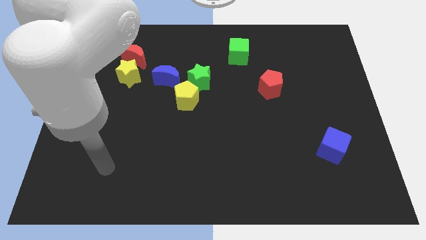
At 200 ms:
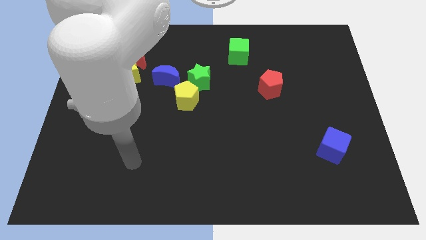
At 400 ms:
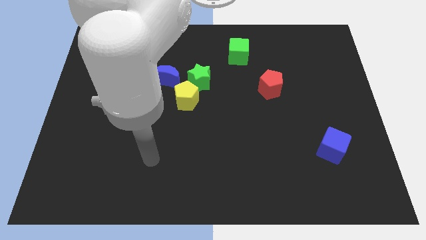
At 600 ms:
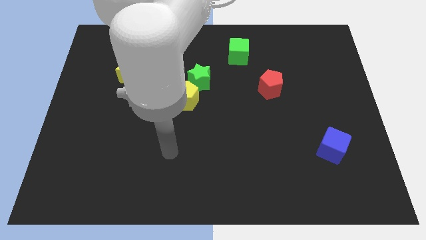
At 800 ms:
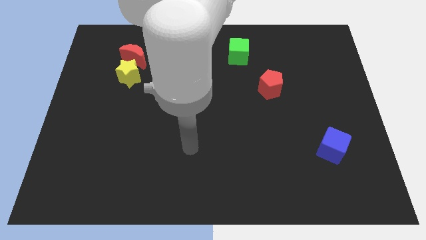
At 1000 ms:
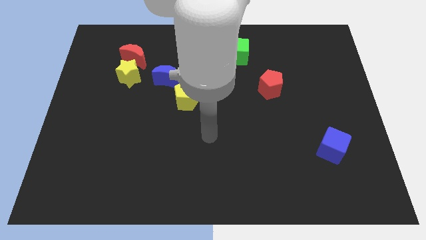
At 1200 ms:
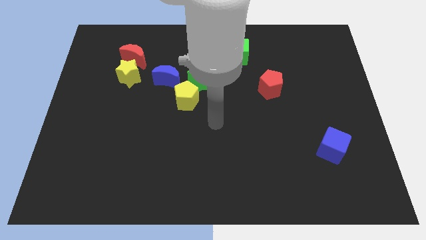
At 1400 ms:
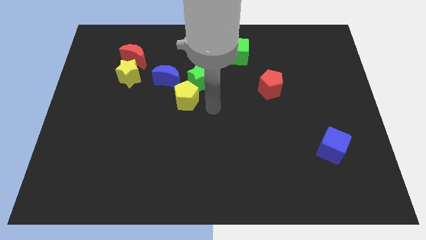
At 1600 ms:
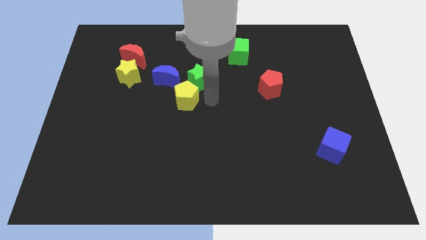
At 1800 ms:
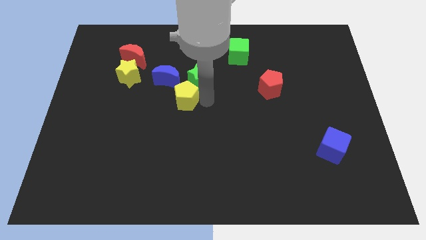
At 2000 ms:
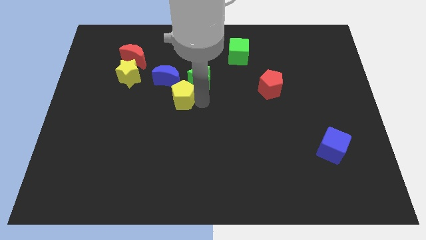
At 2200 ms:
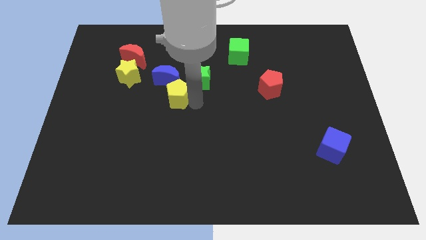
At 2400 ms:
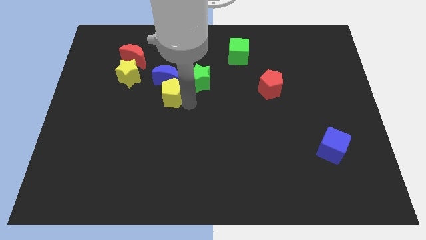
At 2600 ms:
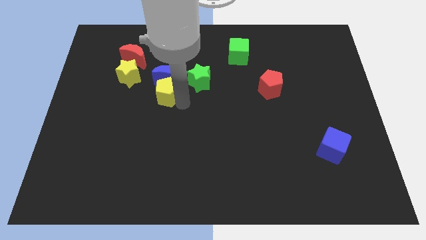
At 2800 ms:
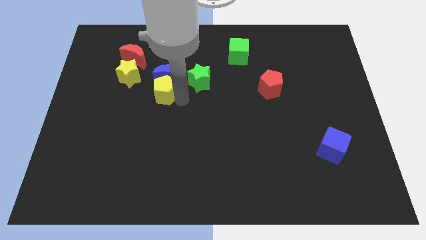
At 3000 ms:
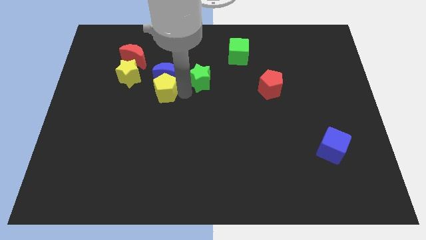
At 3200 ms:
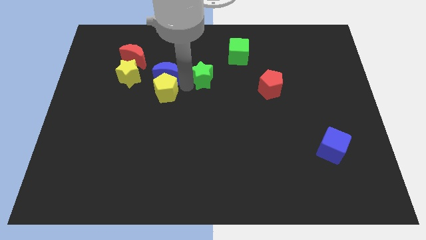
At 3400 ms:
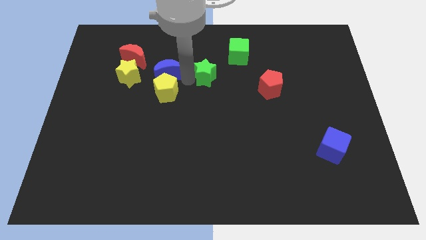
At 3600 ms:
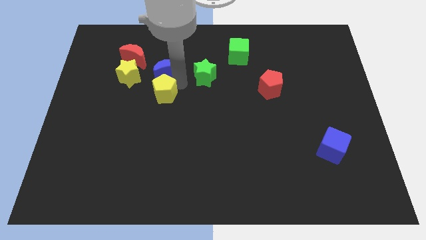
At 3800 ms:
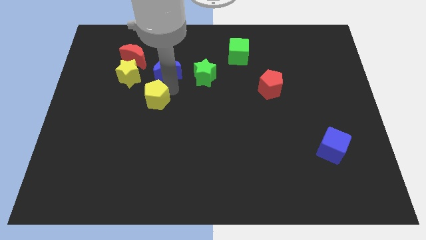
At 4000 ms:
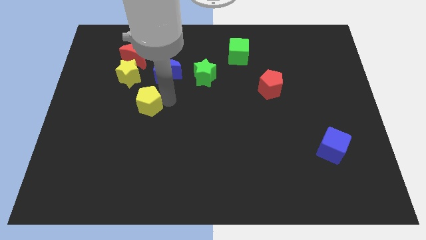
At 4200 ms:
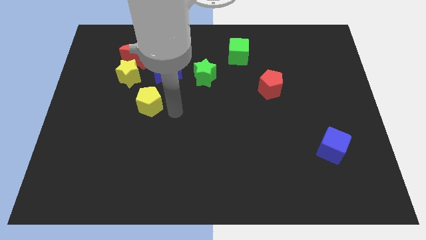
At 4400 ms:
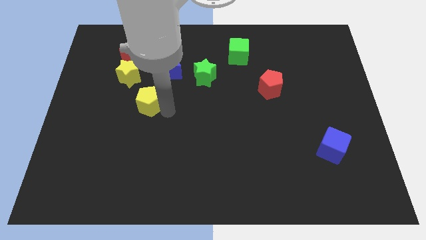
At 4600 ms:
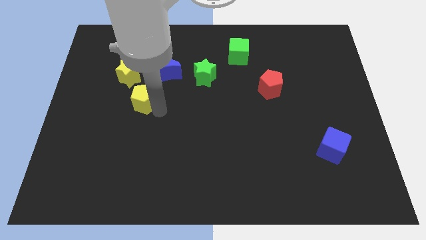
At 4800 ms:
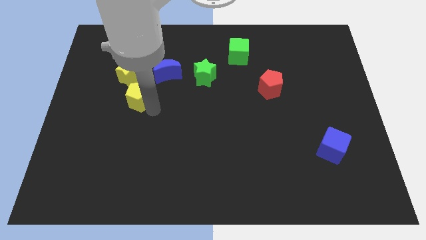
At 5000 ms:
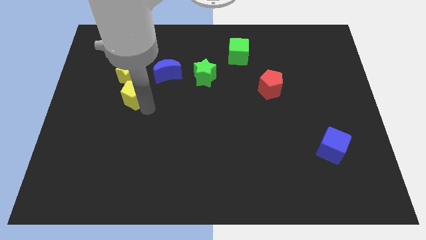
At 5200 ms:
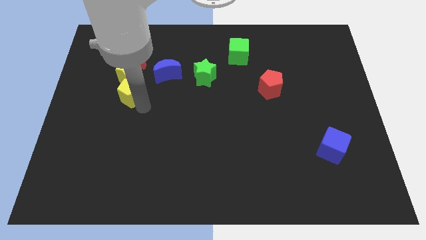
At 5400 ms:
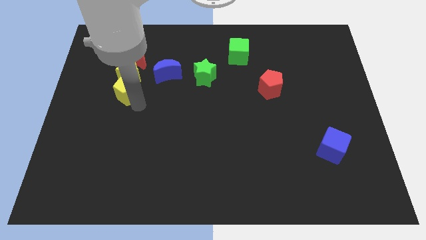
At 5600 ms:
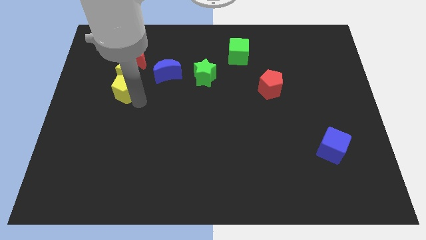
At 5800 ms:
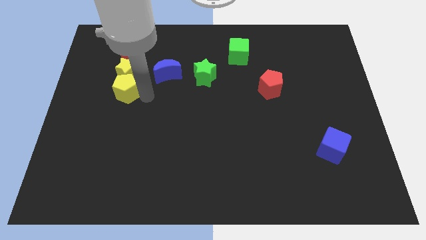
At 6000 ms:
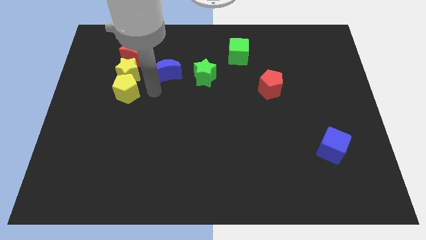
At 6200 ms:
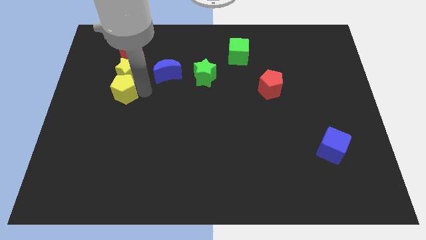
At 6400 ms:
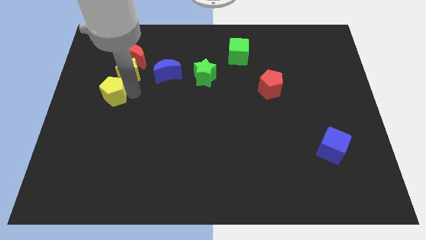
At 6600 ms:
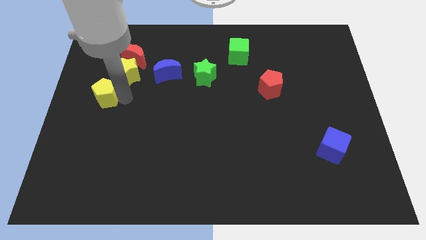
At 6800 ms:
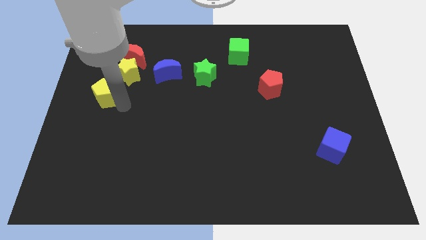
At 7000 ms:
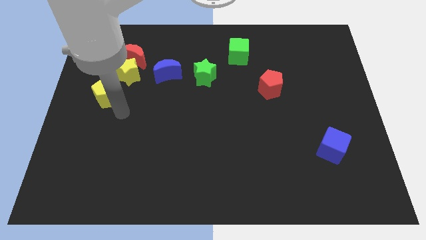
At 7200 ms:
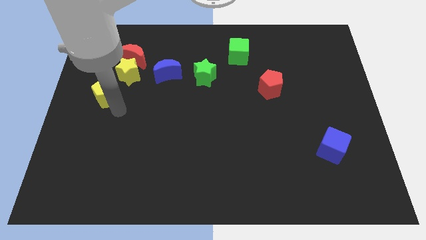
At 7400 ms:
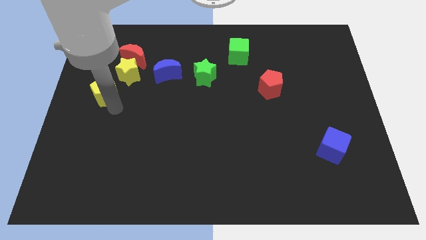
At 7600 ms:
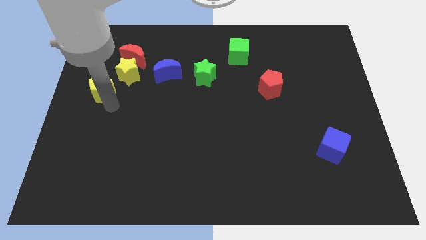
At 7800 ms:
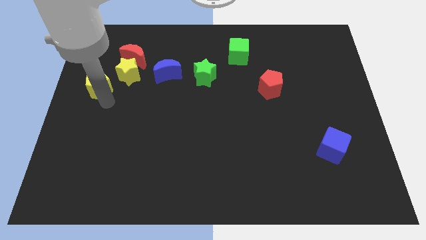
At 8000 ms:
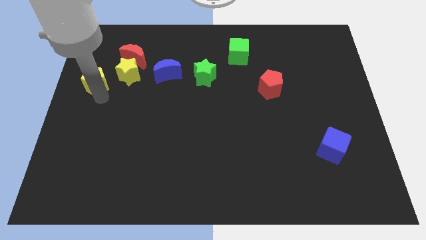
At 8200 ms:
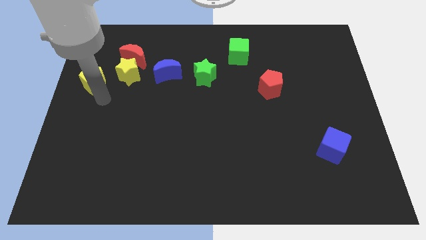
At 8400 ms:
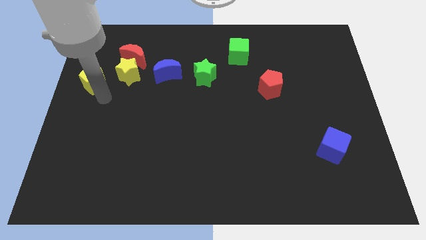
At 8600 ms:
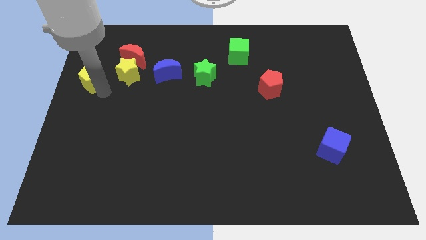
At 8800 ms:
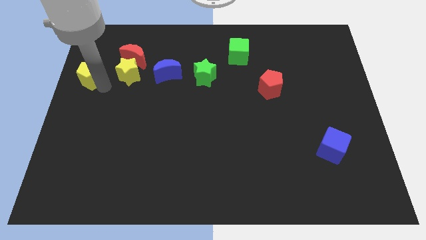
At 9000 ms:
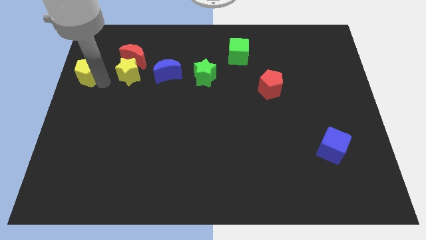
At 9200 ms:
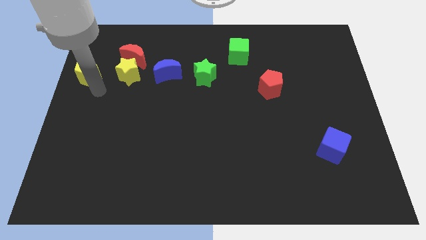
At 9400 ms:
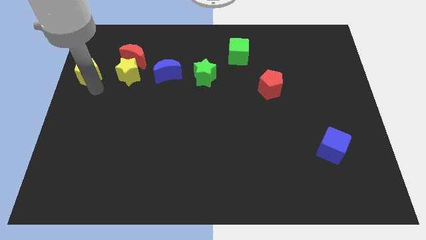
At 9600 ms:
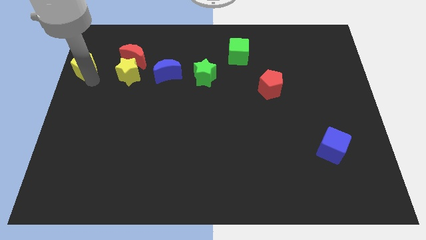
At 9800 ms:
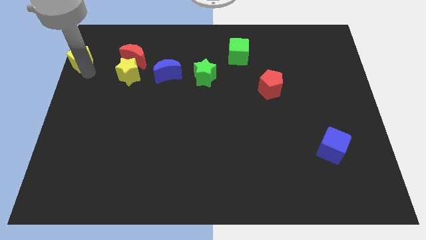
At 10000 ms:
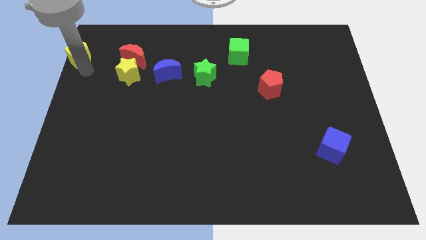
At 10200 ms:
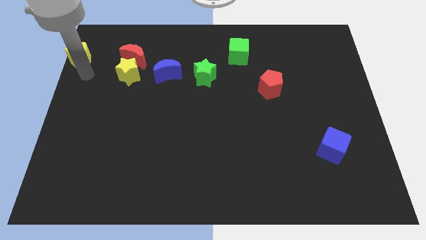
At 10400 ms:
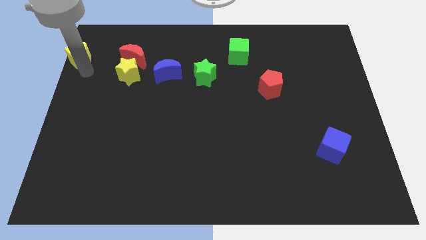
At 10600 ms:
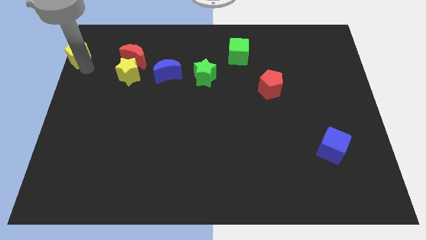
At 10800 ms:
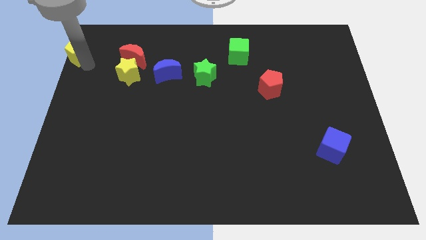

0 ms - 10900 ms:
put the yellow pentagon to the top left of the board

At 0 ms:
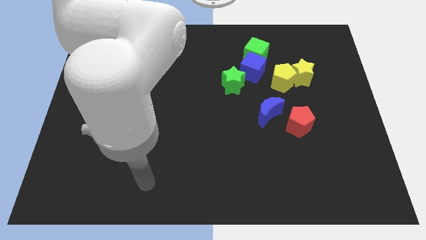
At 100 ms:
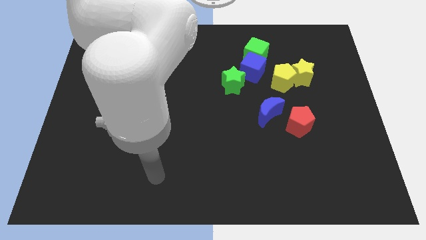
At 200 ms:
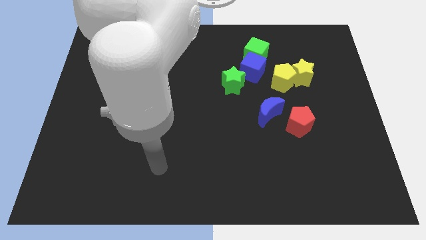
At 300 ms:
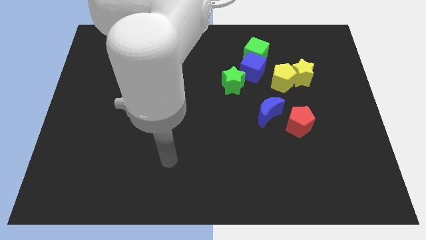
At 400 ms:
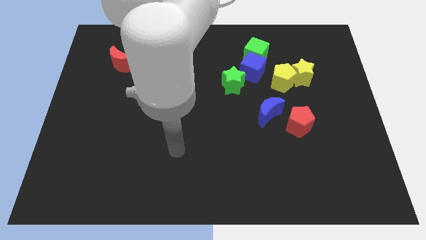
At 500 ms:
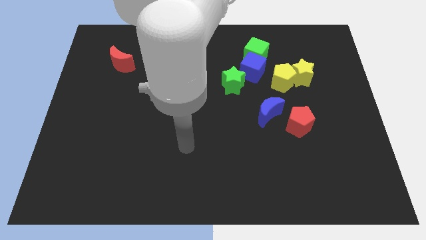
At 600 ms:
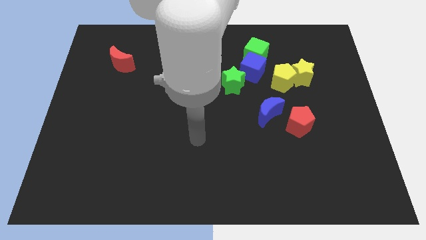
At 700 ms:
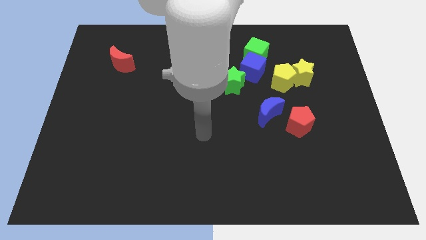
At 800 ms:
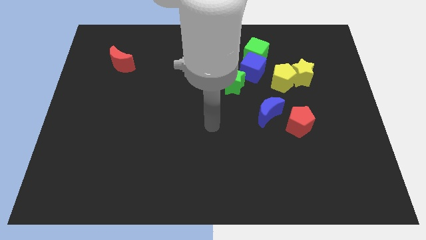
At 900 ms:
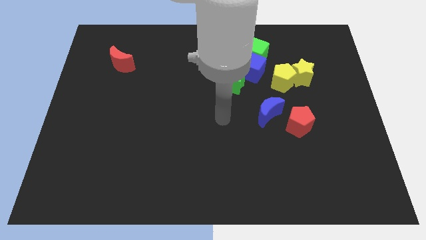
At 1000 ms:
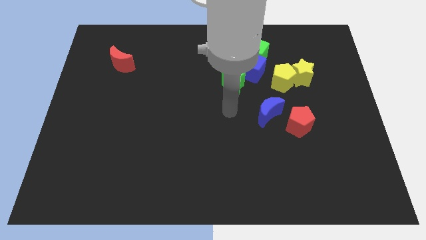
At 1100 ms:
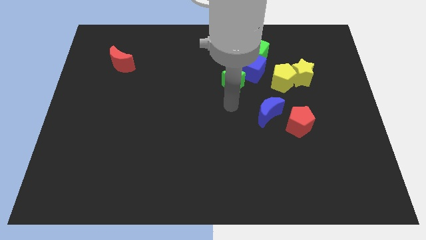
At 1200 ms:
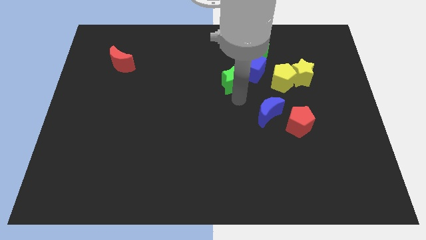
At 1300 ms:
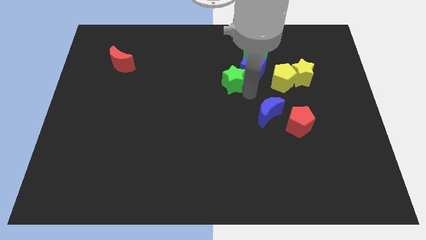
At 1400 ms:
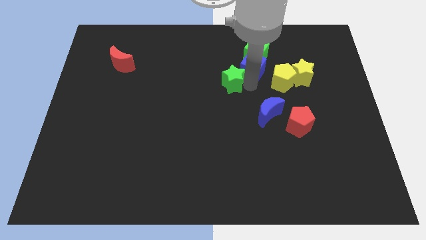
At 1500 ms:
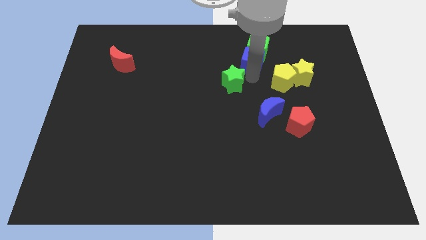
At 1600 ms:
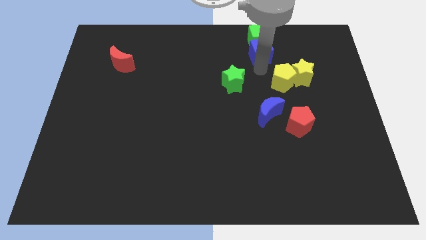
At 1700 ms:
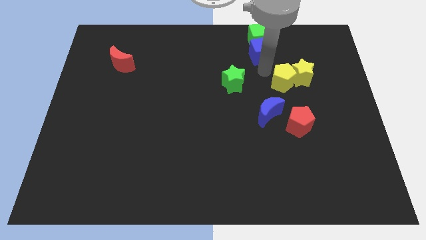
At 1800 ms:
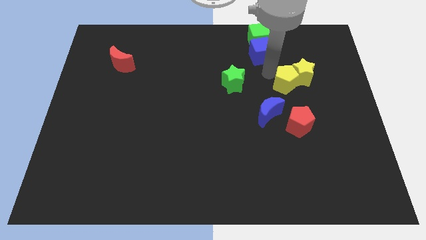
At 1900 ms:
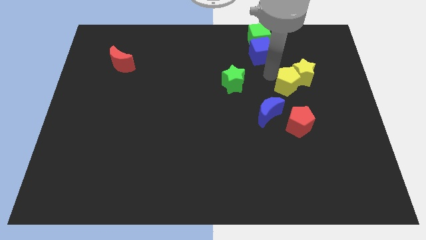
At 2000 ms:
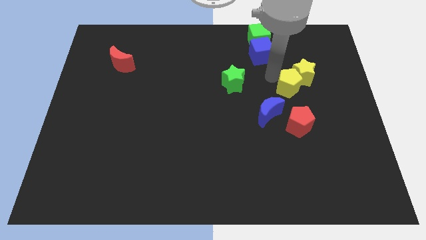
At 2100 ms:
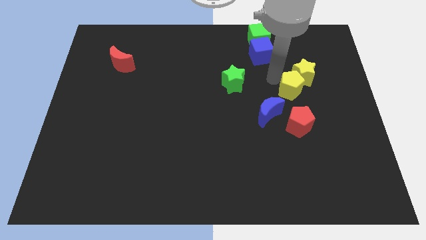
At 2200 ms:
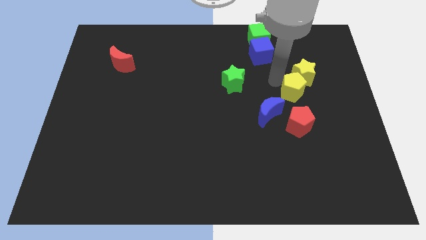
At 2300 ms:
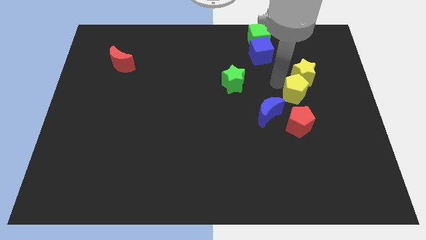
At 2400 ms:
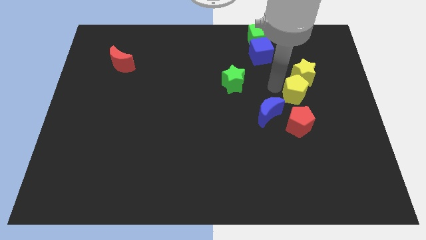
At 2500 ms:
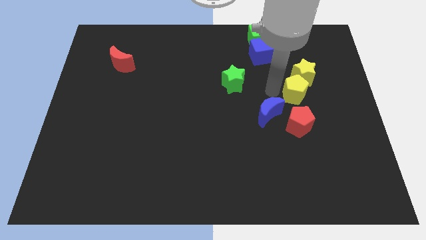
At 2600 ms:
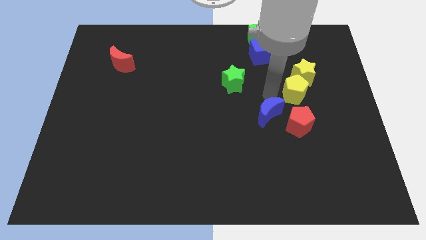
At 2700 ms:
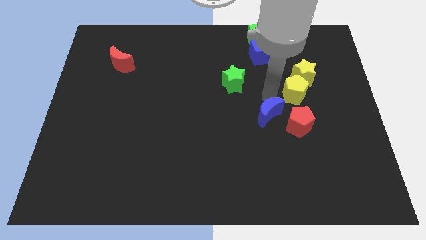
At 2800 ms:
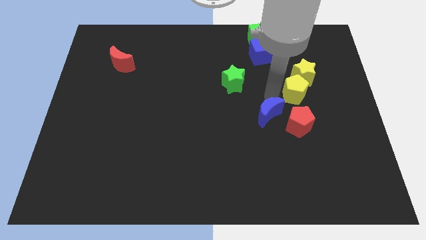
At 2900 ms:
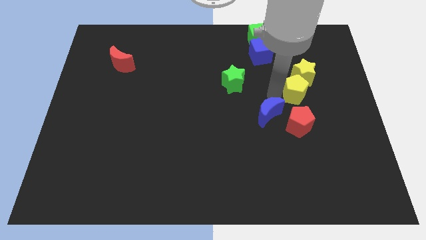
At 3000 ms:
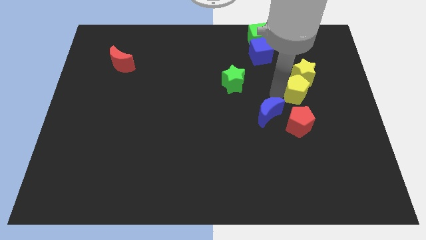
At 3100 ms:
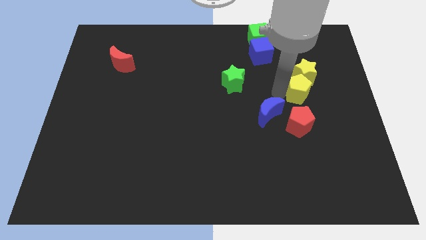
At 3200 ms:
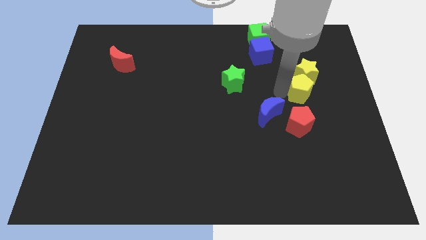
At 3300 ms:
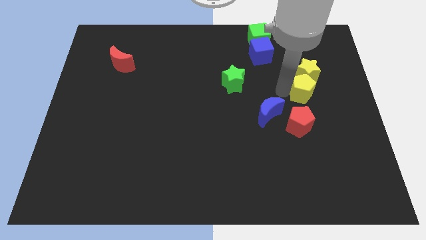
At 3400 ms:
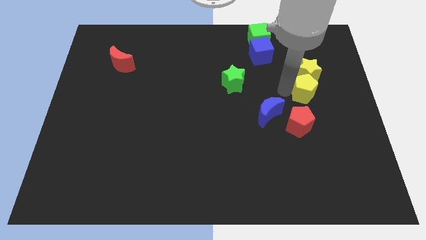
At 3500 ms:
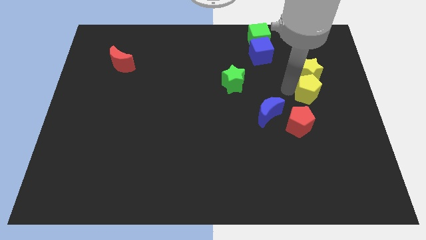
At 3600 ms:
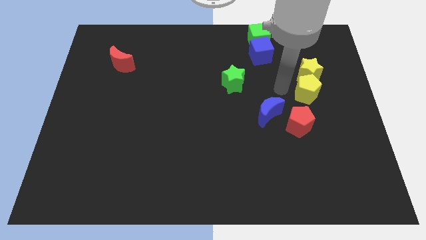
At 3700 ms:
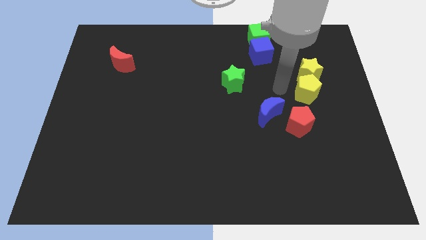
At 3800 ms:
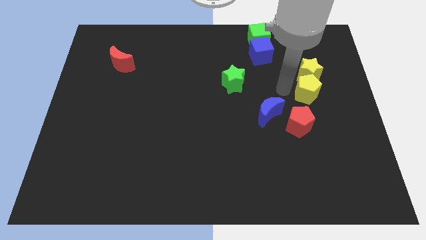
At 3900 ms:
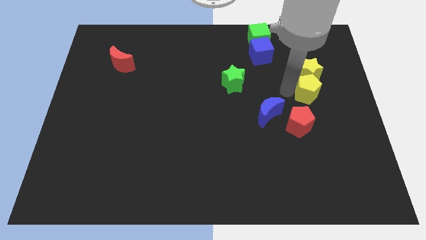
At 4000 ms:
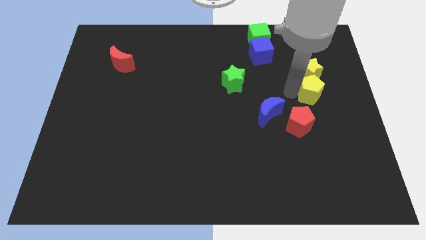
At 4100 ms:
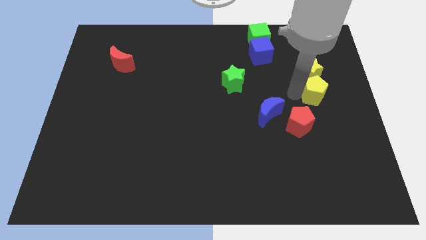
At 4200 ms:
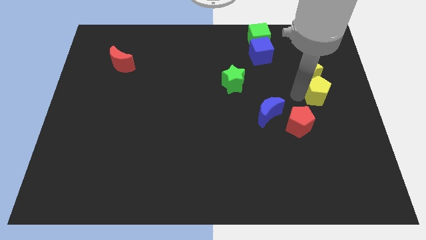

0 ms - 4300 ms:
push the yellow pentagon to the right side
